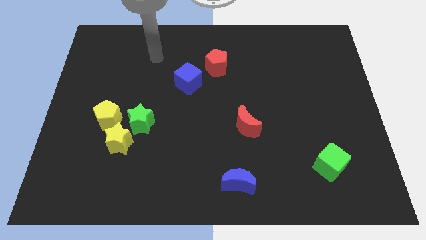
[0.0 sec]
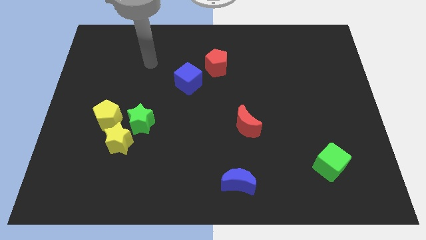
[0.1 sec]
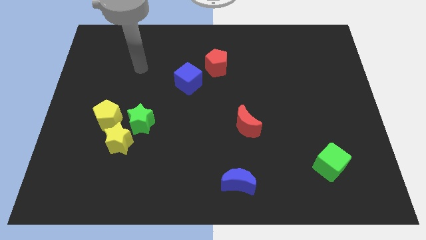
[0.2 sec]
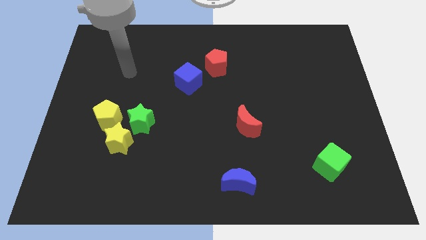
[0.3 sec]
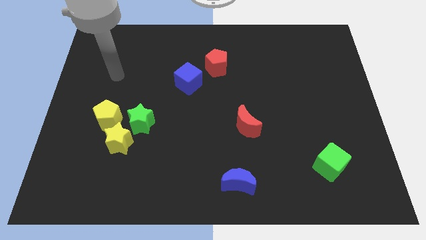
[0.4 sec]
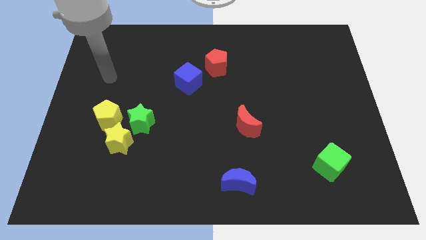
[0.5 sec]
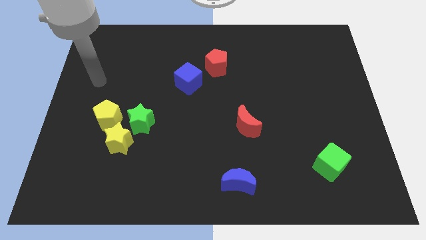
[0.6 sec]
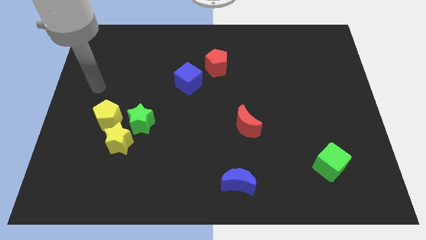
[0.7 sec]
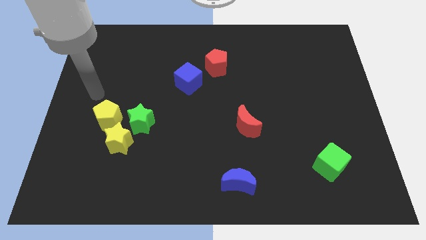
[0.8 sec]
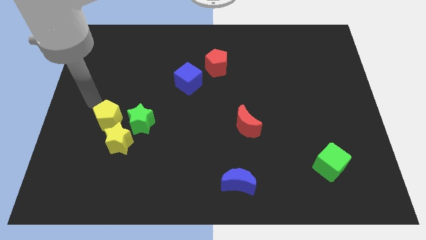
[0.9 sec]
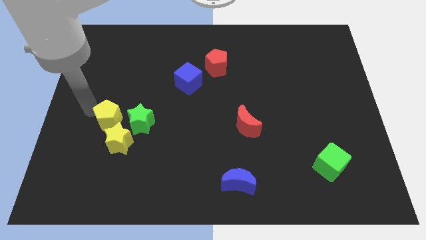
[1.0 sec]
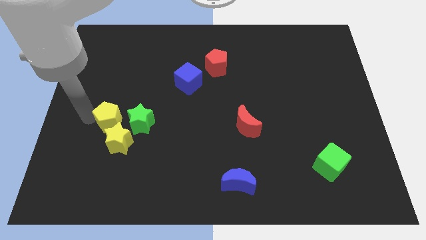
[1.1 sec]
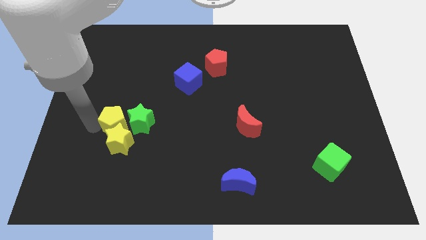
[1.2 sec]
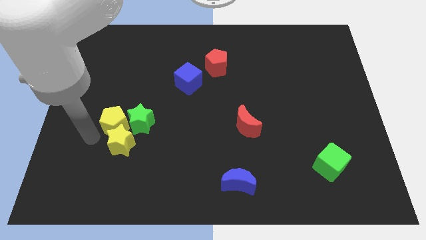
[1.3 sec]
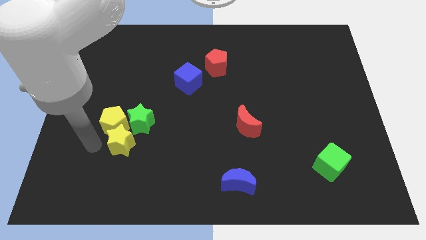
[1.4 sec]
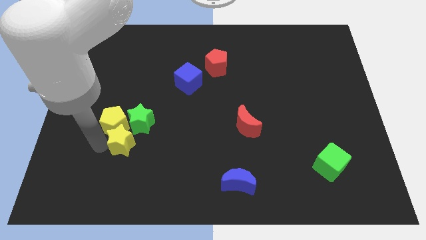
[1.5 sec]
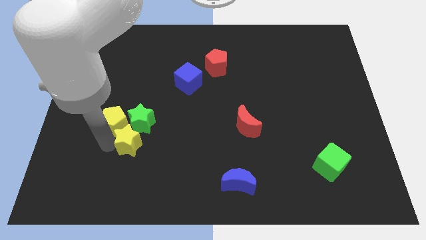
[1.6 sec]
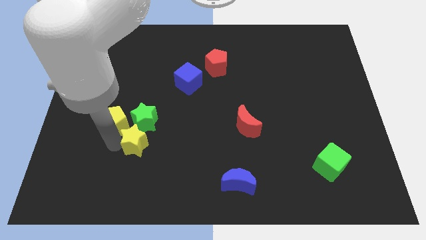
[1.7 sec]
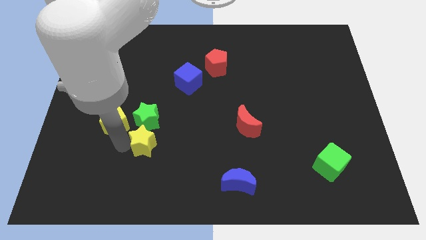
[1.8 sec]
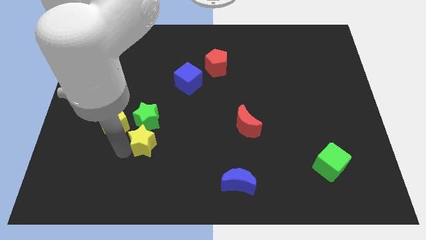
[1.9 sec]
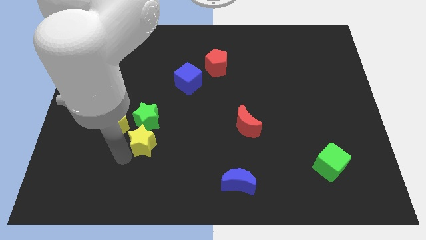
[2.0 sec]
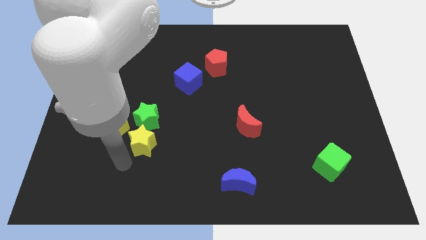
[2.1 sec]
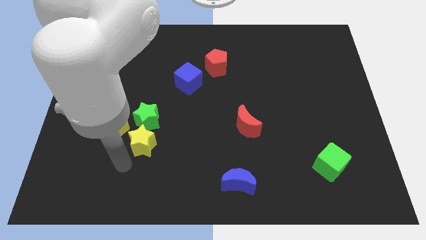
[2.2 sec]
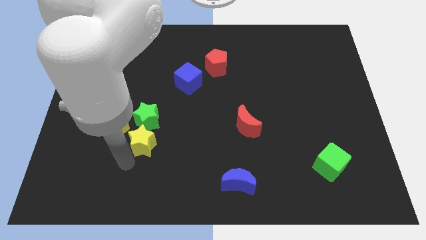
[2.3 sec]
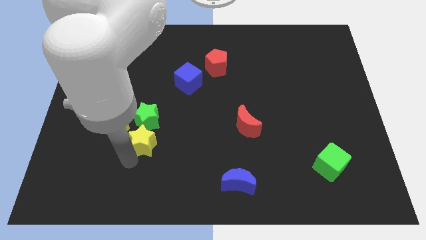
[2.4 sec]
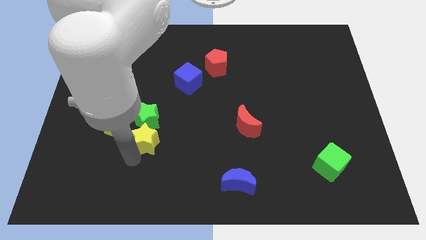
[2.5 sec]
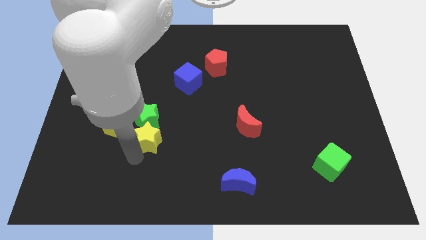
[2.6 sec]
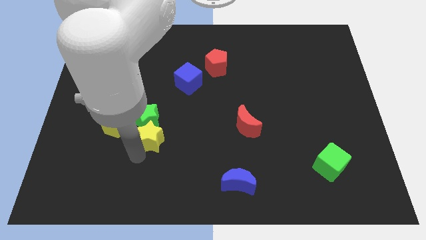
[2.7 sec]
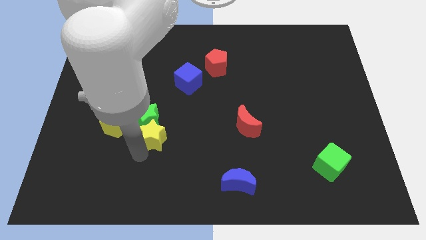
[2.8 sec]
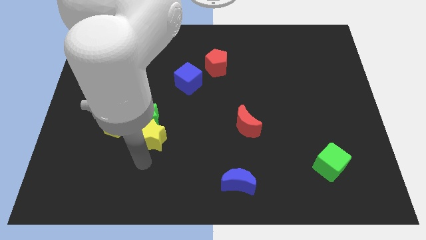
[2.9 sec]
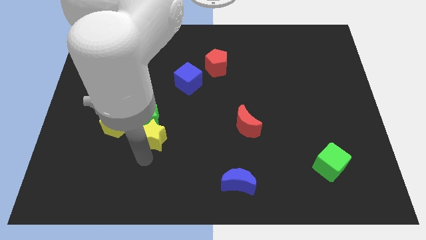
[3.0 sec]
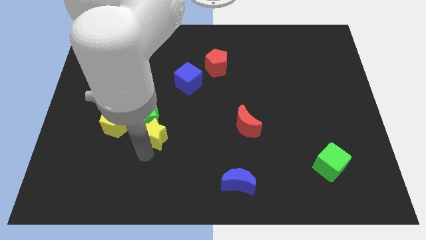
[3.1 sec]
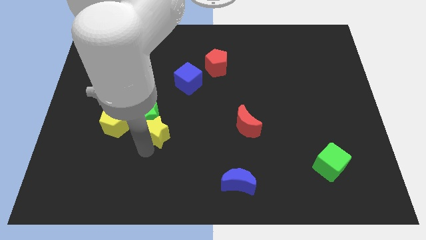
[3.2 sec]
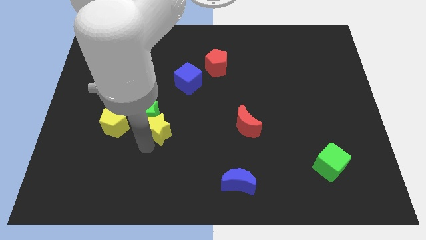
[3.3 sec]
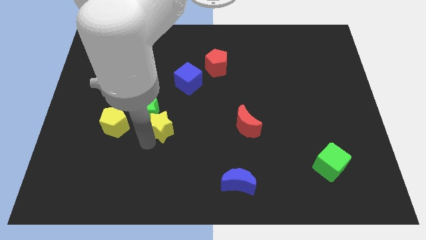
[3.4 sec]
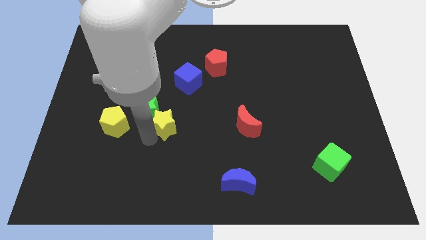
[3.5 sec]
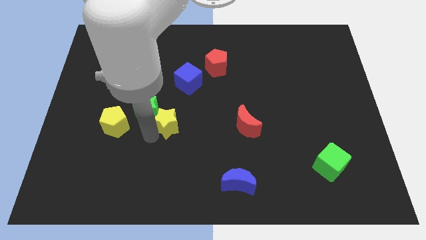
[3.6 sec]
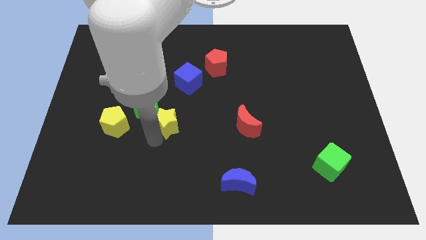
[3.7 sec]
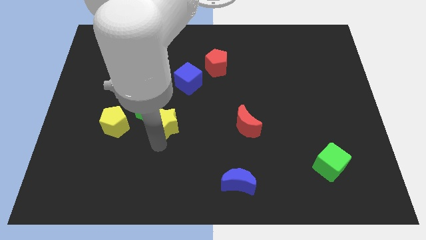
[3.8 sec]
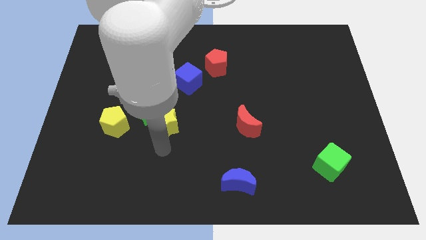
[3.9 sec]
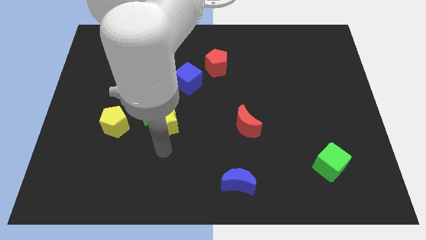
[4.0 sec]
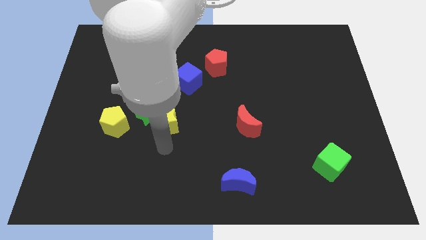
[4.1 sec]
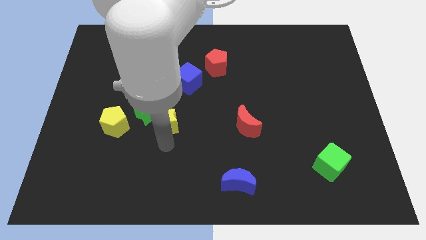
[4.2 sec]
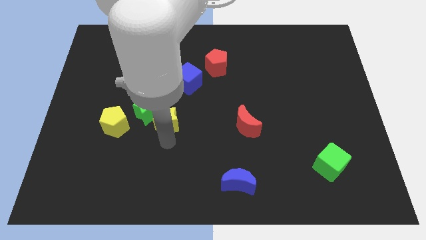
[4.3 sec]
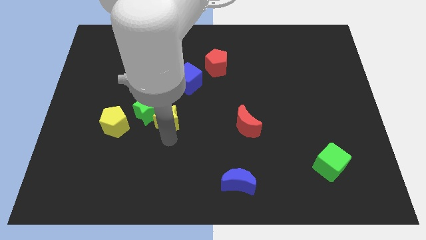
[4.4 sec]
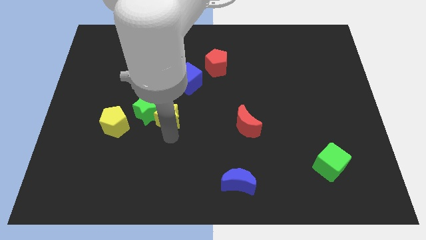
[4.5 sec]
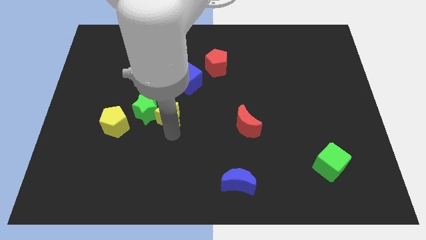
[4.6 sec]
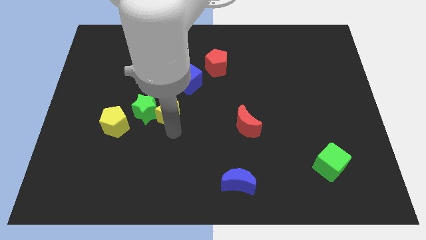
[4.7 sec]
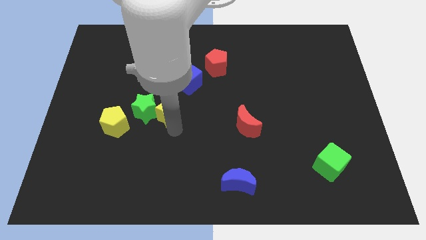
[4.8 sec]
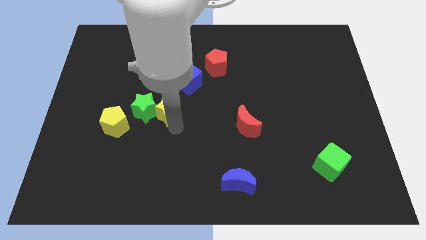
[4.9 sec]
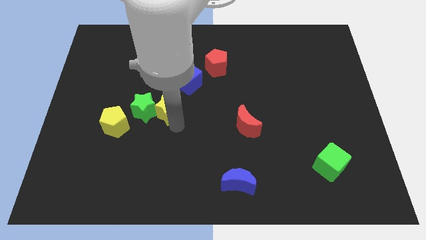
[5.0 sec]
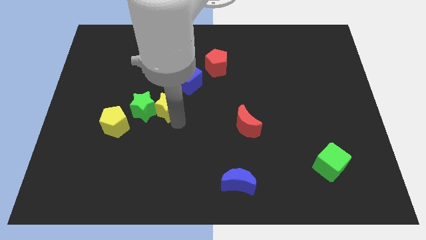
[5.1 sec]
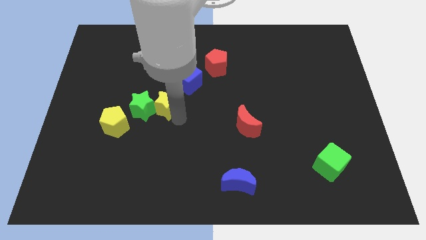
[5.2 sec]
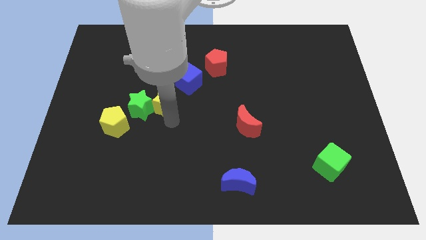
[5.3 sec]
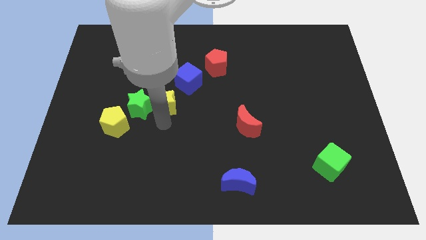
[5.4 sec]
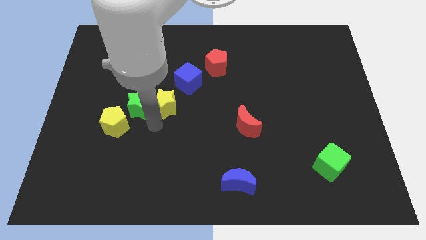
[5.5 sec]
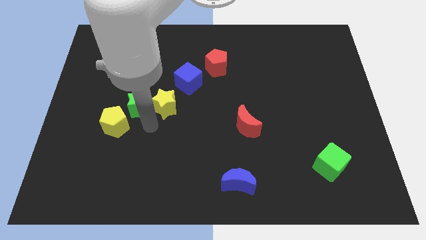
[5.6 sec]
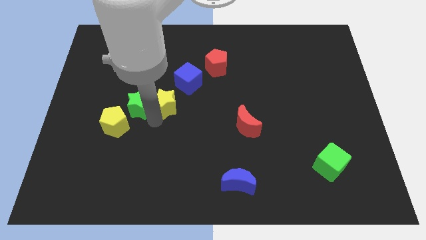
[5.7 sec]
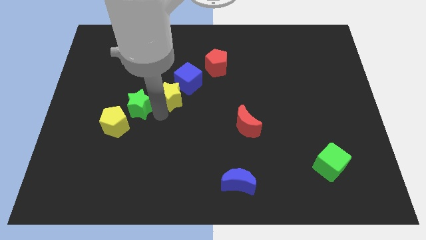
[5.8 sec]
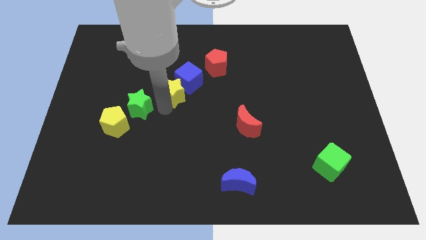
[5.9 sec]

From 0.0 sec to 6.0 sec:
push the yellow star to the blue cube

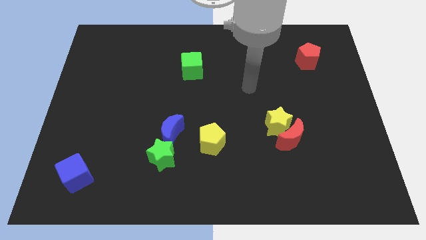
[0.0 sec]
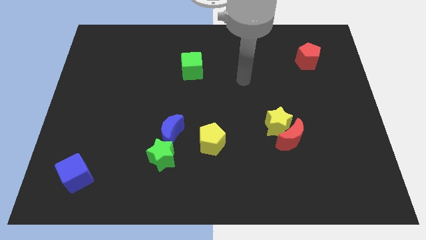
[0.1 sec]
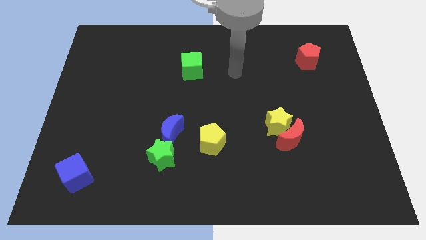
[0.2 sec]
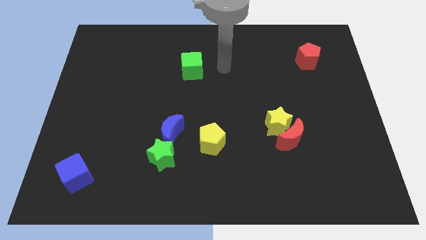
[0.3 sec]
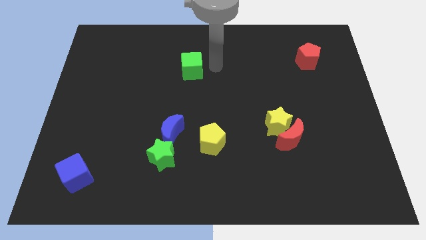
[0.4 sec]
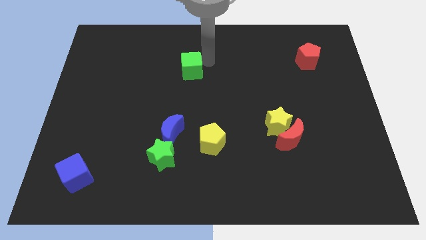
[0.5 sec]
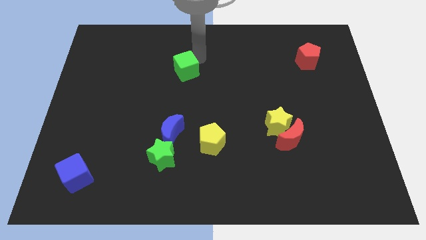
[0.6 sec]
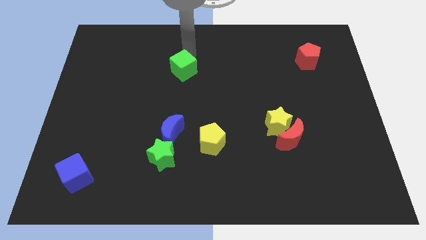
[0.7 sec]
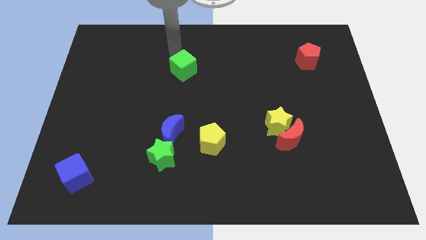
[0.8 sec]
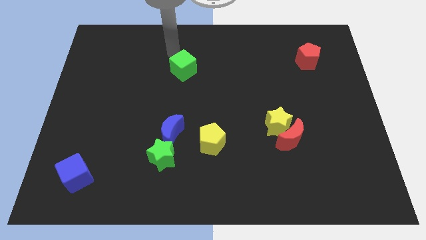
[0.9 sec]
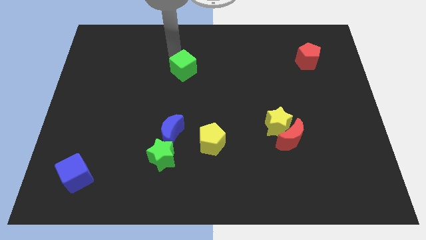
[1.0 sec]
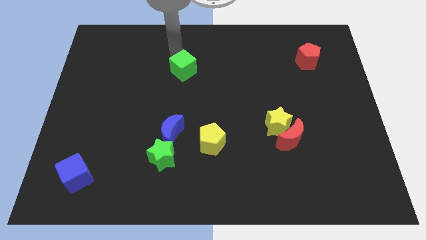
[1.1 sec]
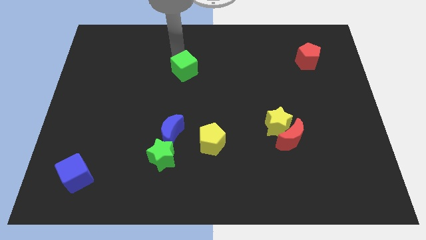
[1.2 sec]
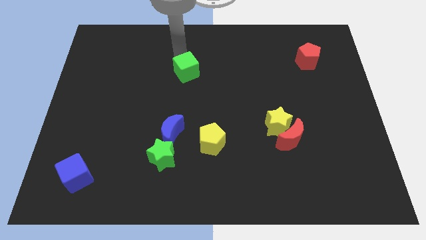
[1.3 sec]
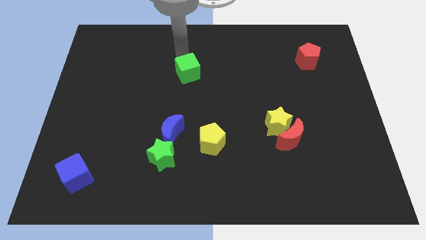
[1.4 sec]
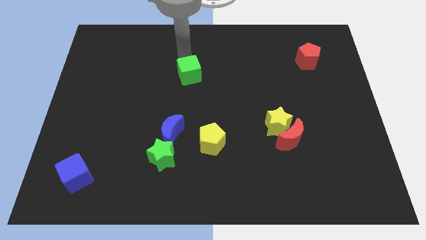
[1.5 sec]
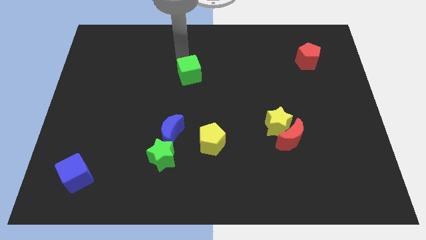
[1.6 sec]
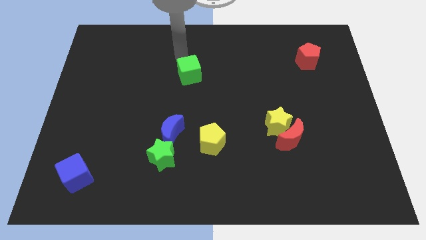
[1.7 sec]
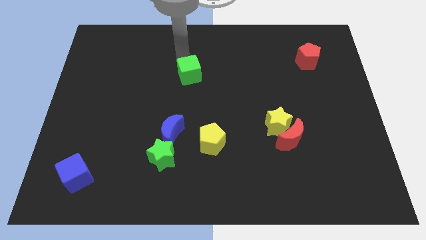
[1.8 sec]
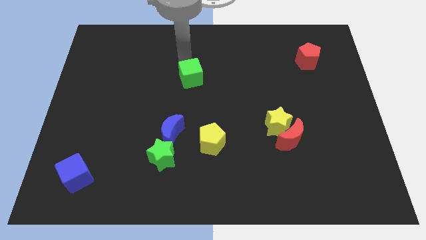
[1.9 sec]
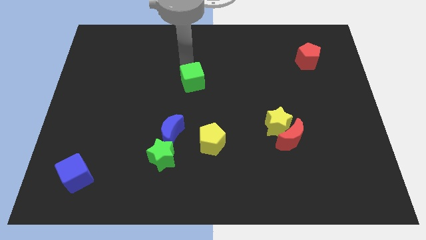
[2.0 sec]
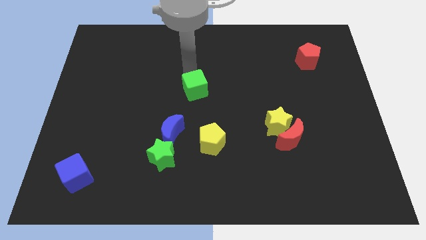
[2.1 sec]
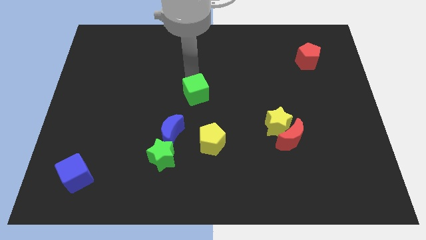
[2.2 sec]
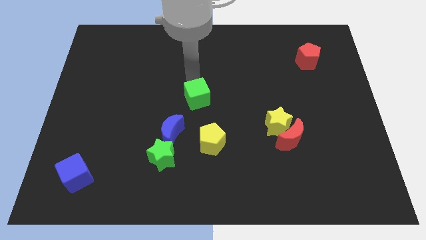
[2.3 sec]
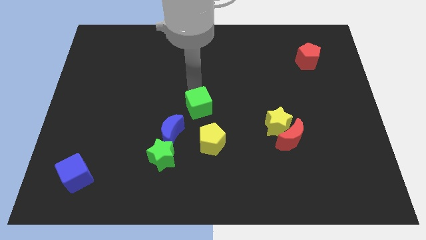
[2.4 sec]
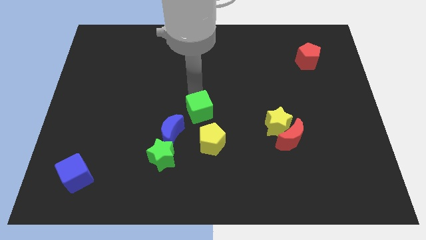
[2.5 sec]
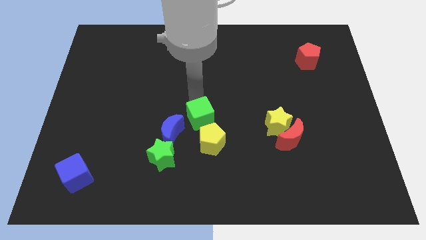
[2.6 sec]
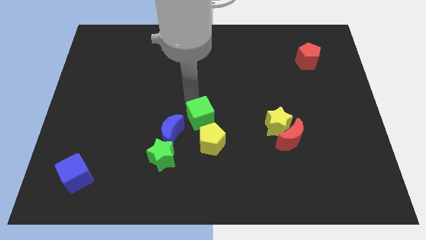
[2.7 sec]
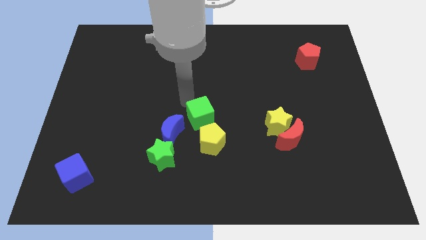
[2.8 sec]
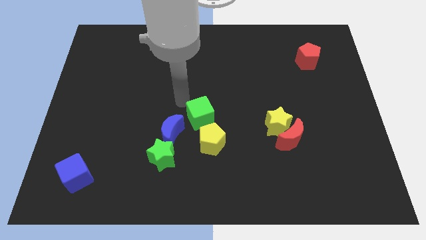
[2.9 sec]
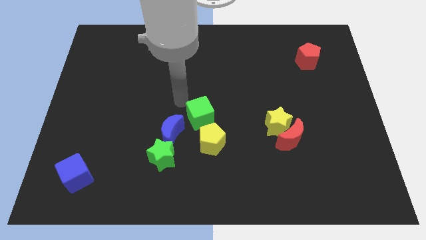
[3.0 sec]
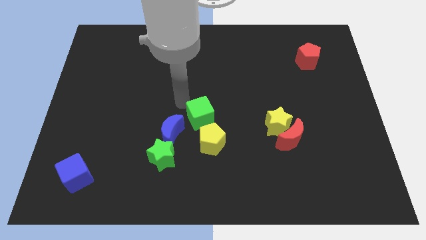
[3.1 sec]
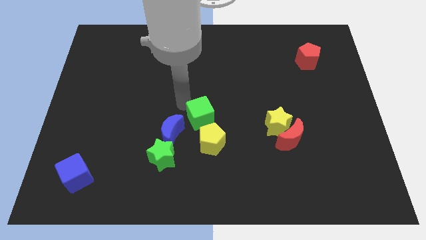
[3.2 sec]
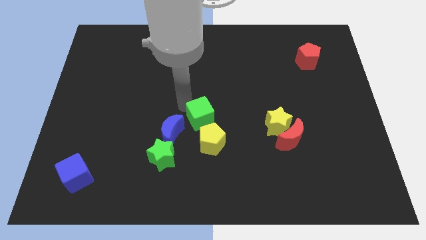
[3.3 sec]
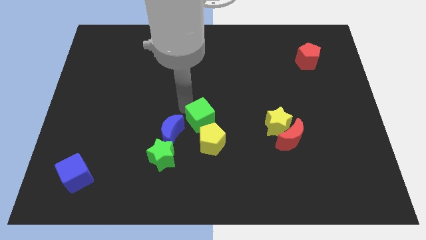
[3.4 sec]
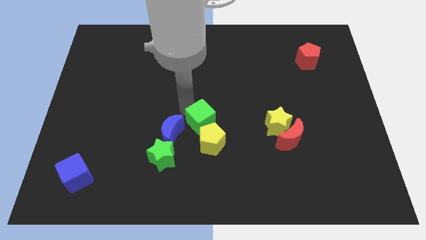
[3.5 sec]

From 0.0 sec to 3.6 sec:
move the green cube next to the yellow pentagon
